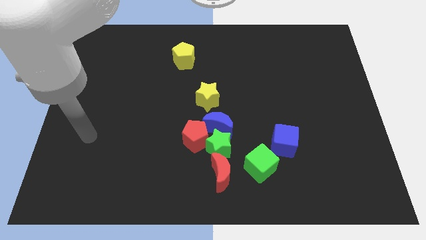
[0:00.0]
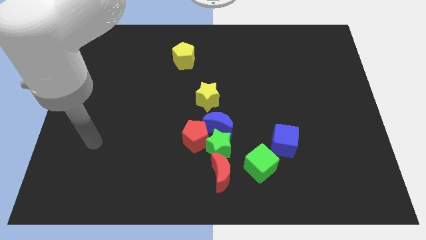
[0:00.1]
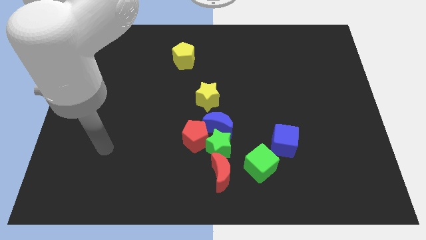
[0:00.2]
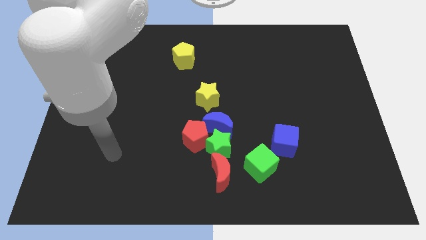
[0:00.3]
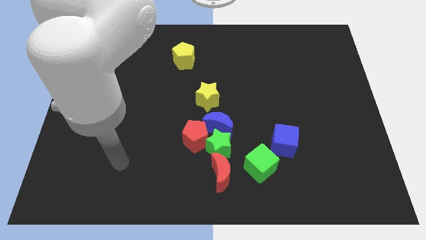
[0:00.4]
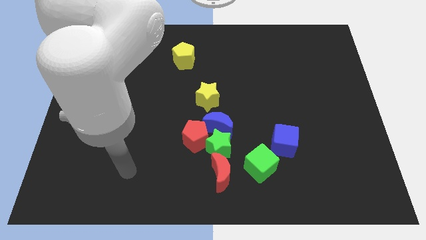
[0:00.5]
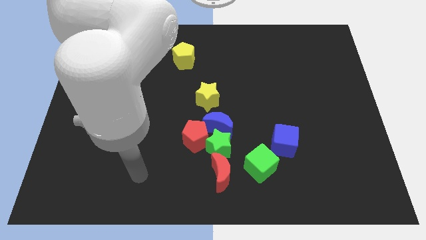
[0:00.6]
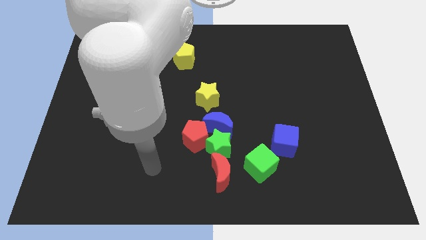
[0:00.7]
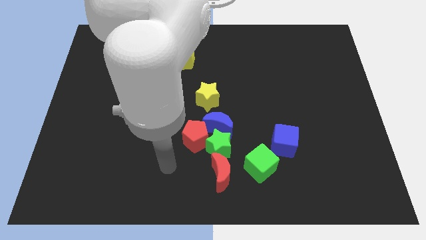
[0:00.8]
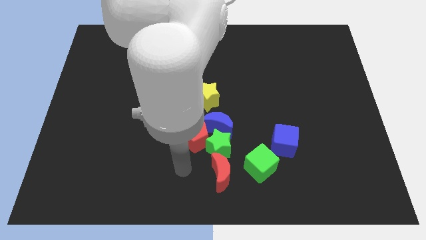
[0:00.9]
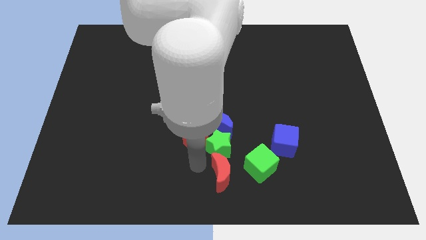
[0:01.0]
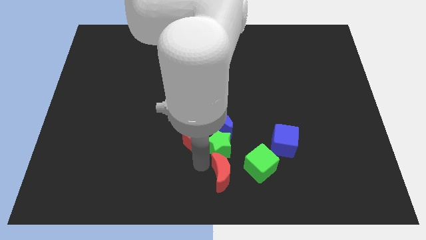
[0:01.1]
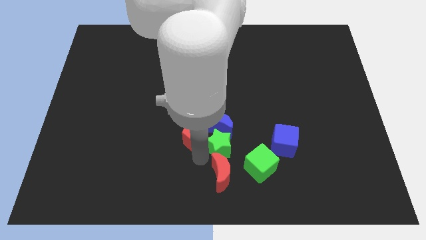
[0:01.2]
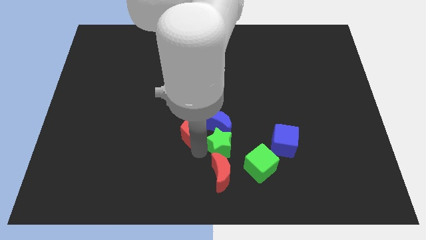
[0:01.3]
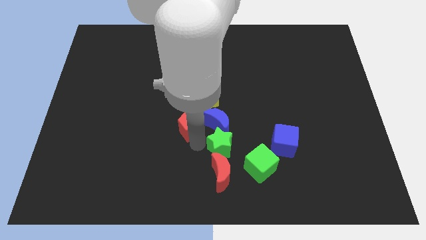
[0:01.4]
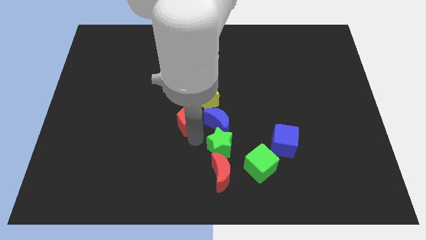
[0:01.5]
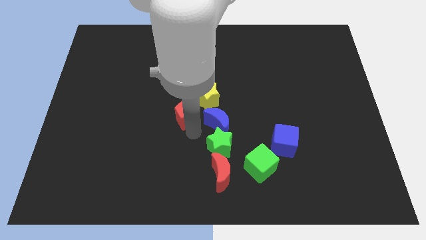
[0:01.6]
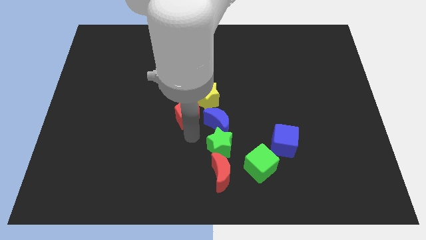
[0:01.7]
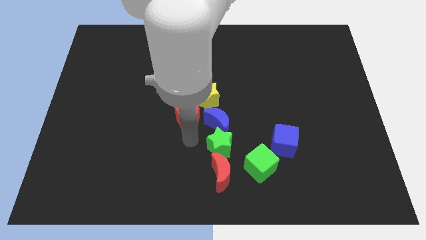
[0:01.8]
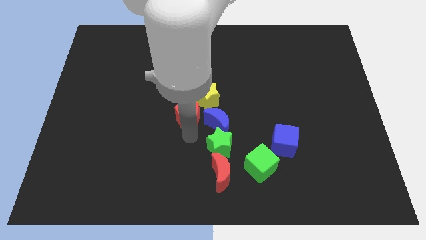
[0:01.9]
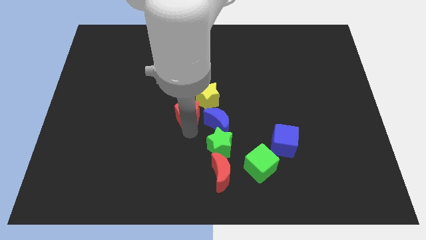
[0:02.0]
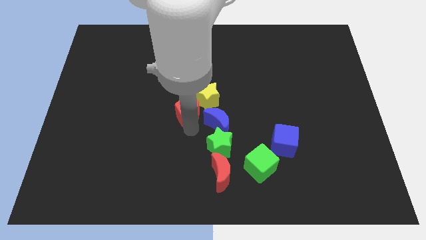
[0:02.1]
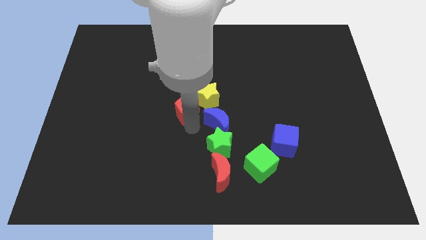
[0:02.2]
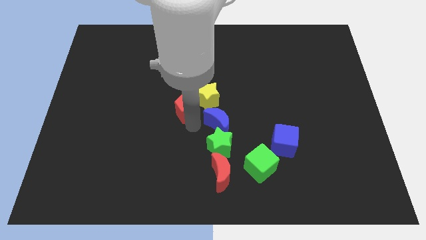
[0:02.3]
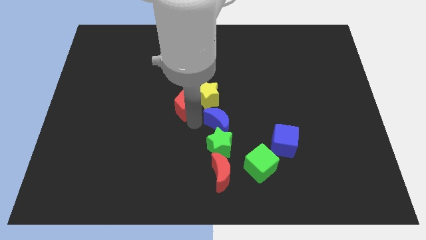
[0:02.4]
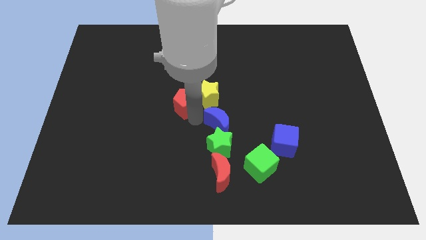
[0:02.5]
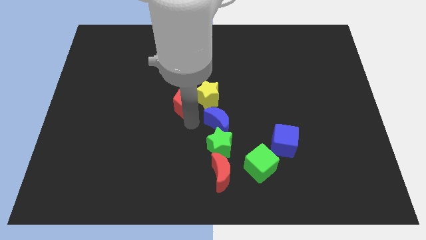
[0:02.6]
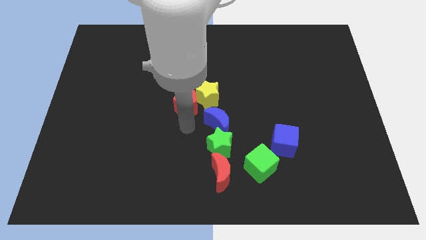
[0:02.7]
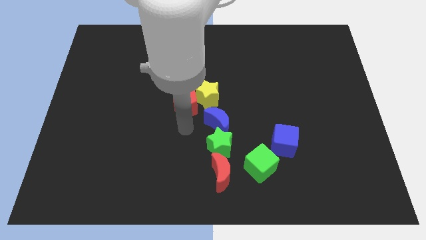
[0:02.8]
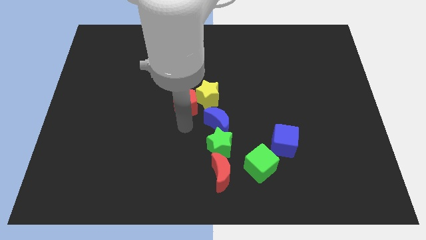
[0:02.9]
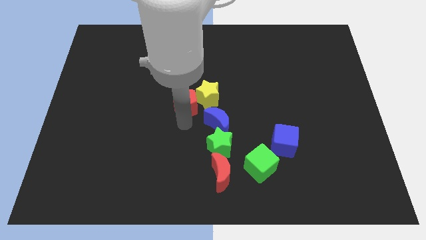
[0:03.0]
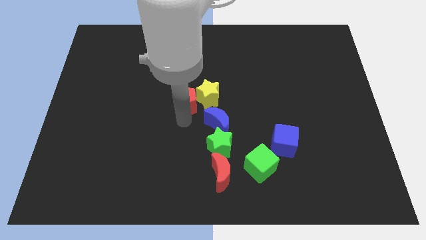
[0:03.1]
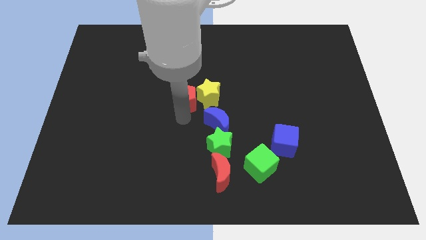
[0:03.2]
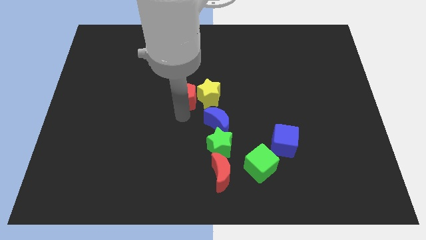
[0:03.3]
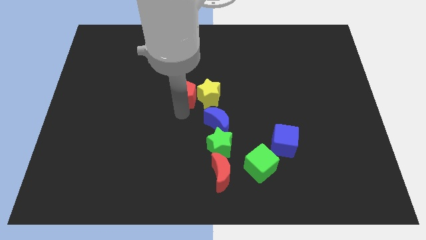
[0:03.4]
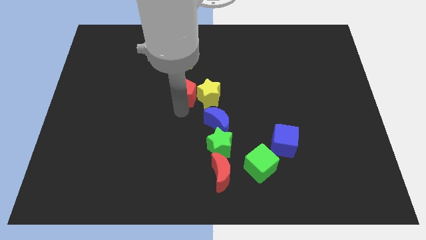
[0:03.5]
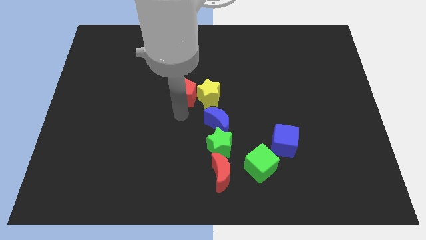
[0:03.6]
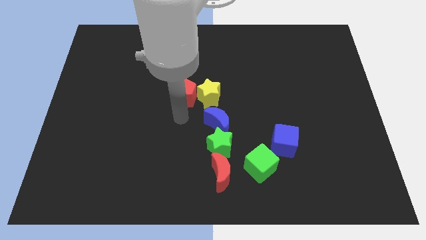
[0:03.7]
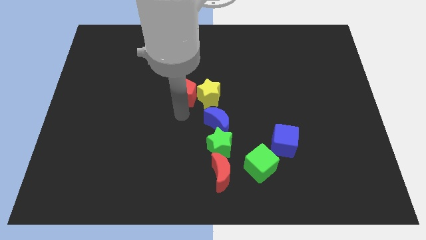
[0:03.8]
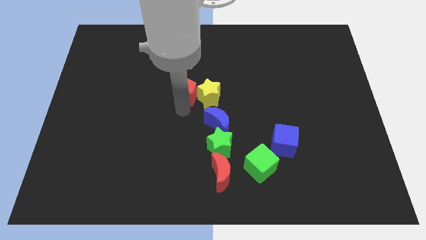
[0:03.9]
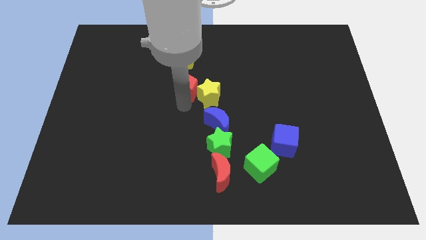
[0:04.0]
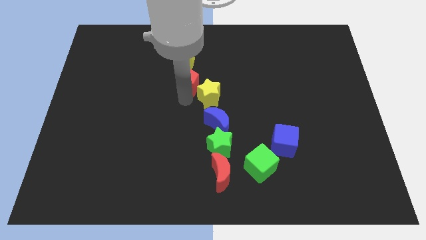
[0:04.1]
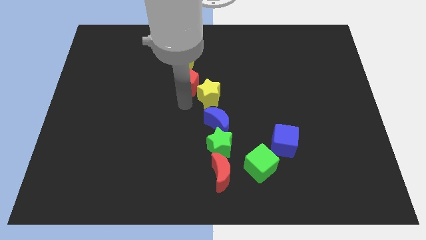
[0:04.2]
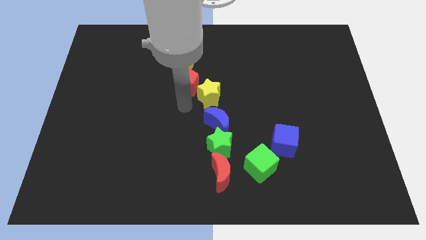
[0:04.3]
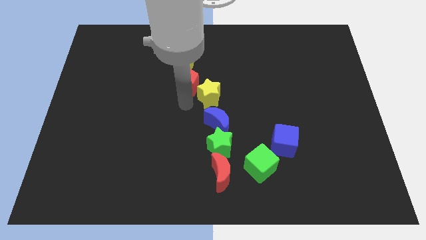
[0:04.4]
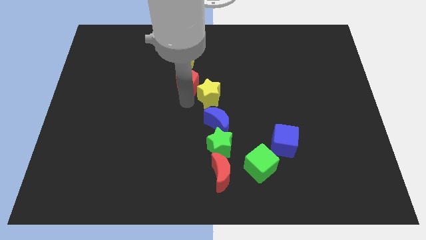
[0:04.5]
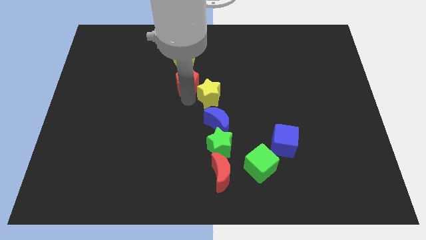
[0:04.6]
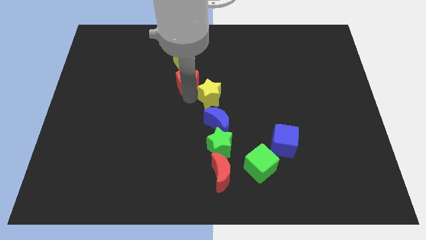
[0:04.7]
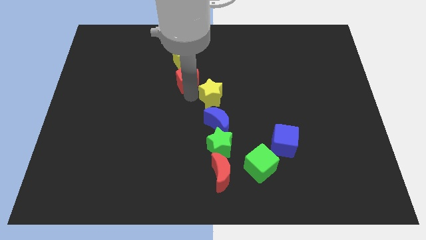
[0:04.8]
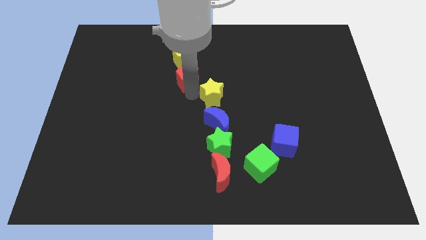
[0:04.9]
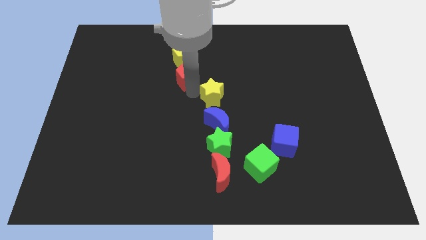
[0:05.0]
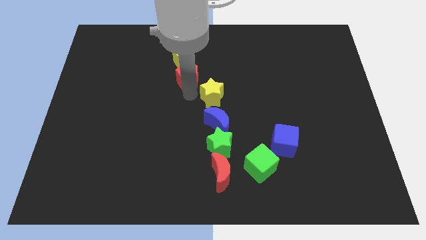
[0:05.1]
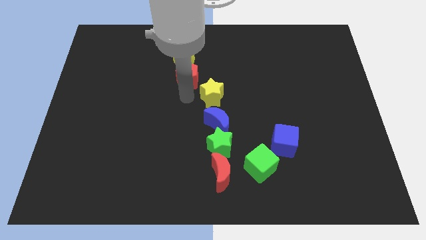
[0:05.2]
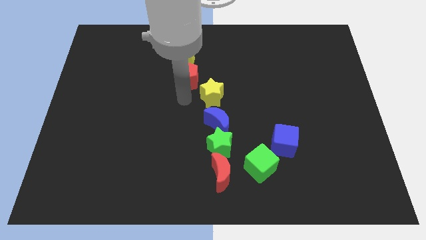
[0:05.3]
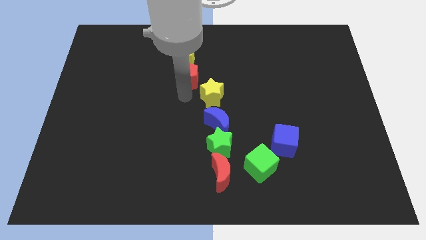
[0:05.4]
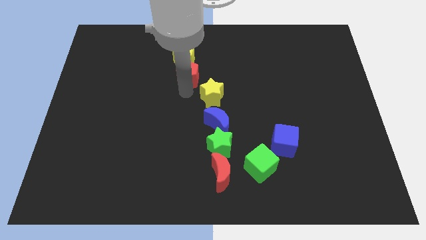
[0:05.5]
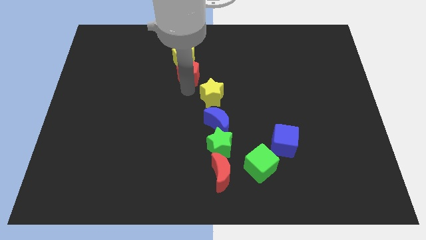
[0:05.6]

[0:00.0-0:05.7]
put the red pentagon to the yellow pentagon

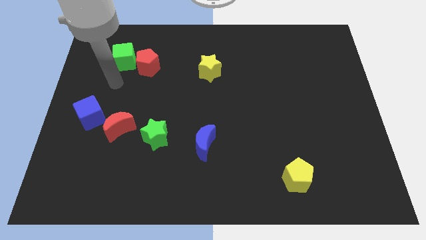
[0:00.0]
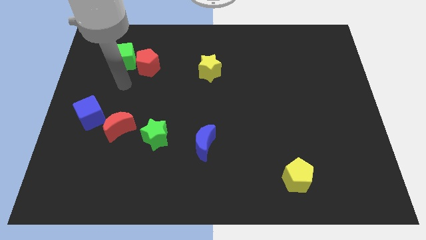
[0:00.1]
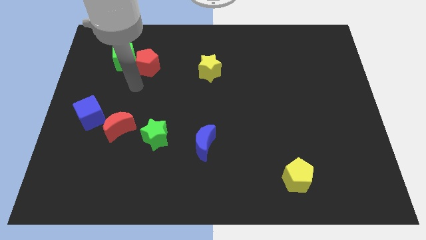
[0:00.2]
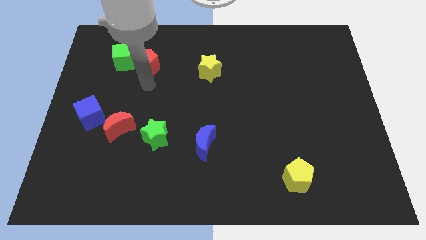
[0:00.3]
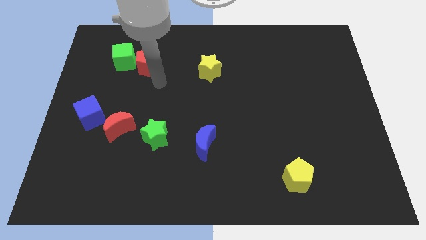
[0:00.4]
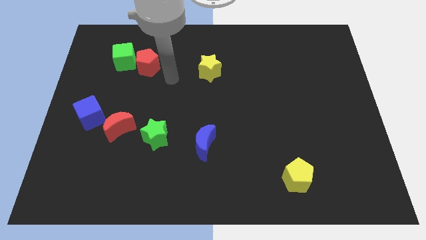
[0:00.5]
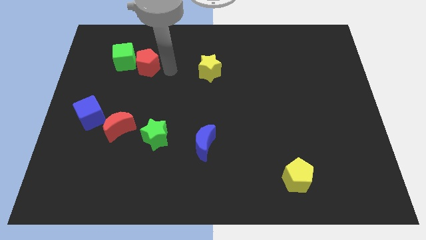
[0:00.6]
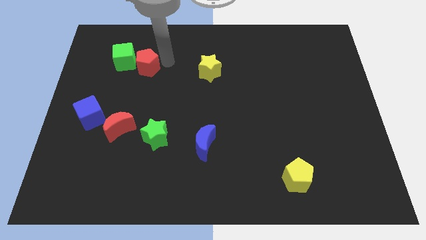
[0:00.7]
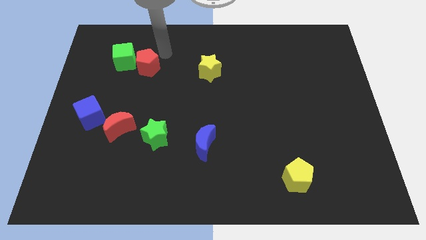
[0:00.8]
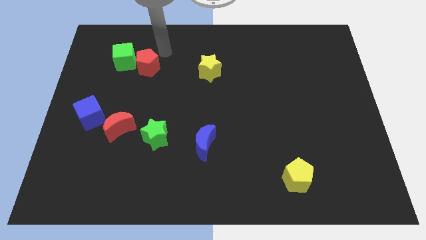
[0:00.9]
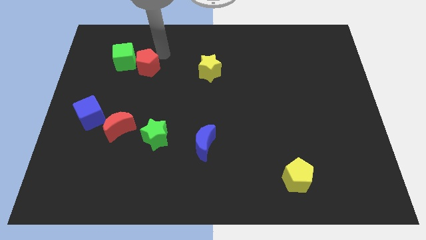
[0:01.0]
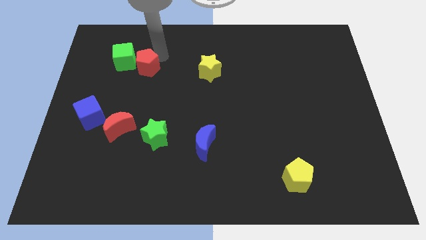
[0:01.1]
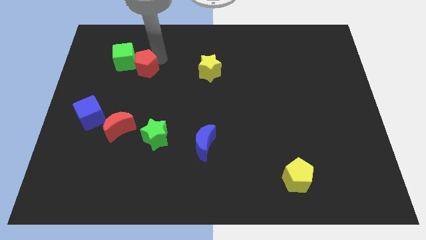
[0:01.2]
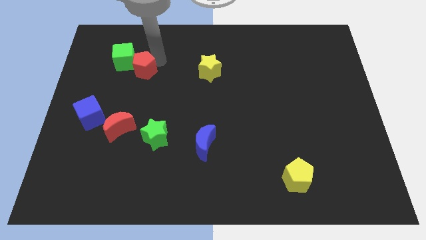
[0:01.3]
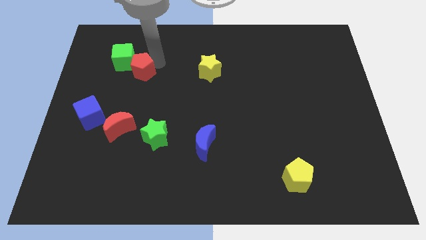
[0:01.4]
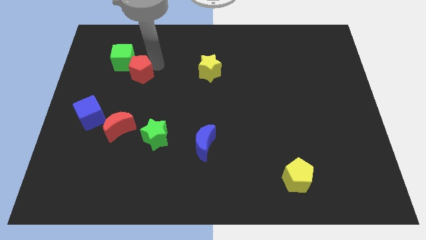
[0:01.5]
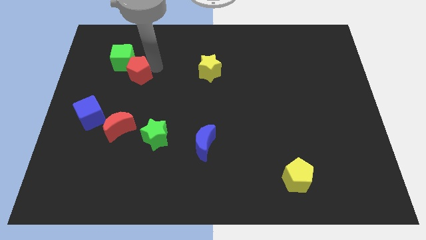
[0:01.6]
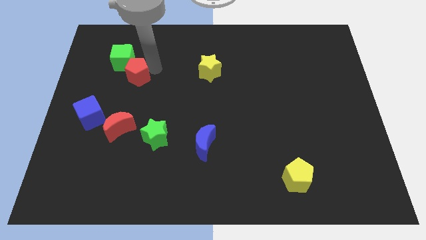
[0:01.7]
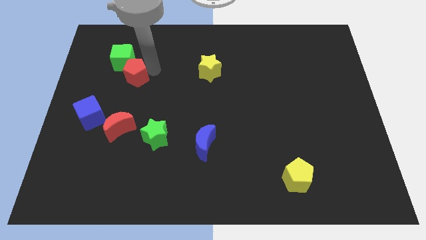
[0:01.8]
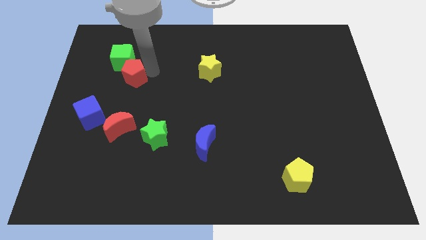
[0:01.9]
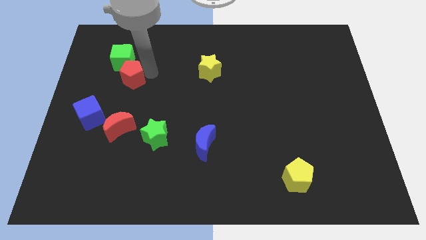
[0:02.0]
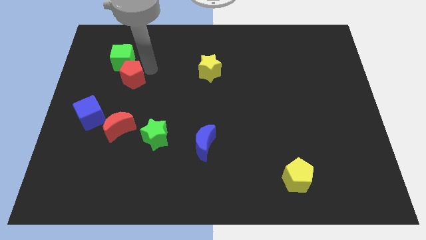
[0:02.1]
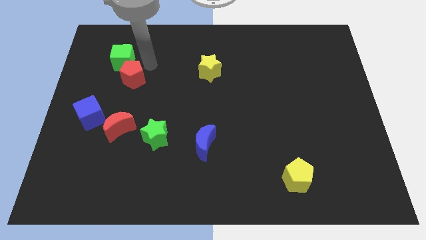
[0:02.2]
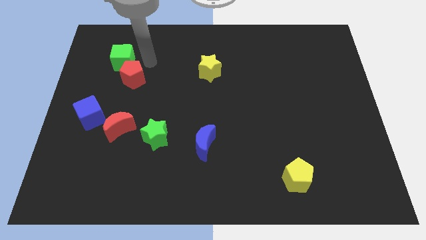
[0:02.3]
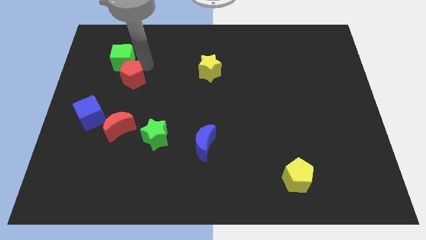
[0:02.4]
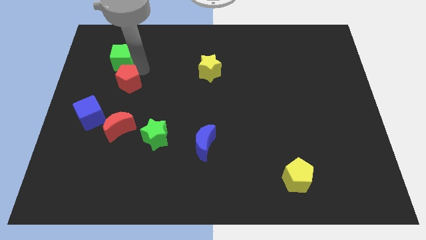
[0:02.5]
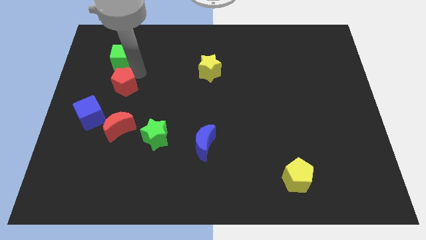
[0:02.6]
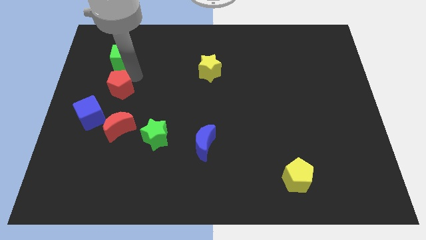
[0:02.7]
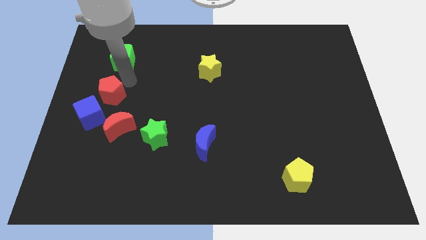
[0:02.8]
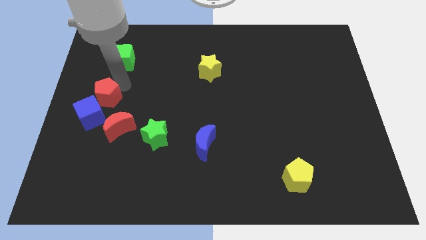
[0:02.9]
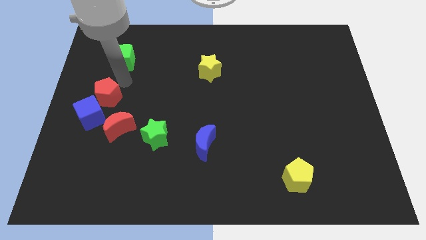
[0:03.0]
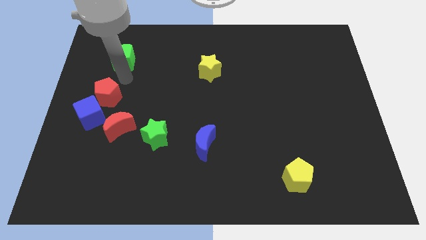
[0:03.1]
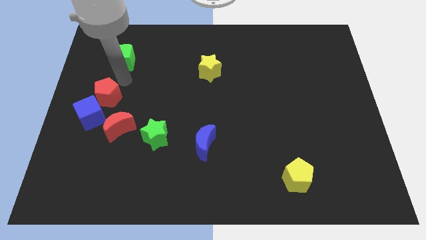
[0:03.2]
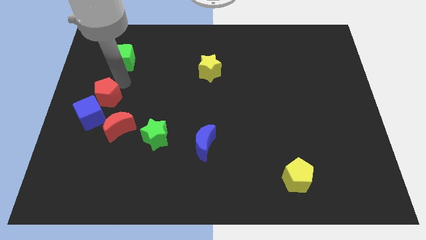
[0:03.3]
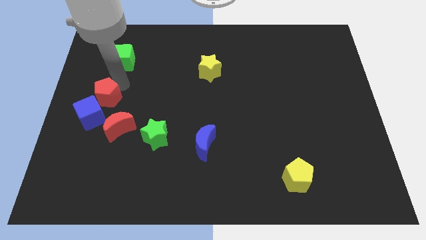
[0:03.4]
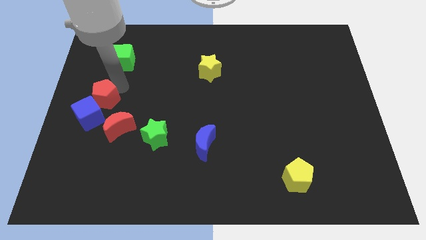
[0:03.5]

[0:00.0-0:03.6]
push the red pentagon close to the blue cube
